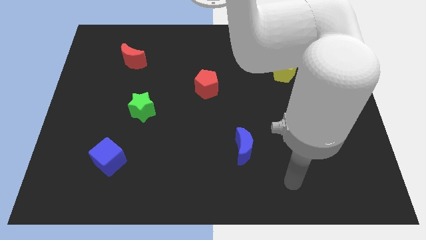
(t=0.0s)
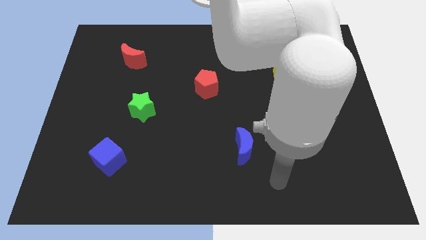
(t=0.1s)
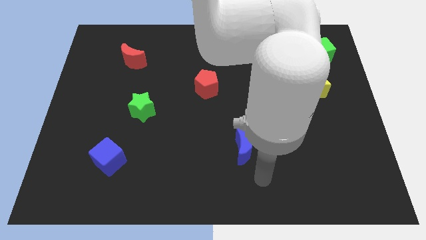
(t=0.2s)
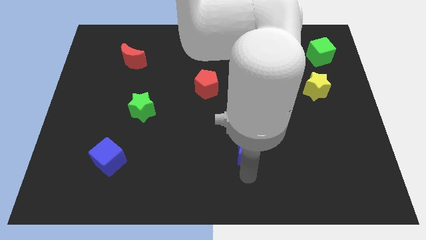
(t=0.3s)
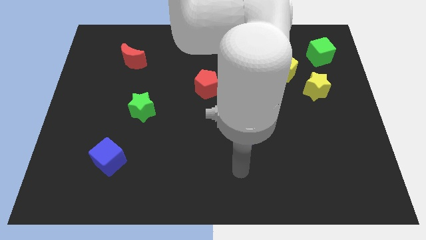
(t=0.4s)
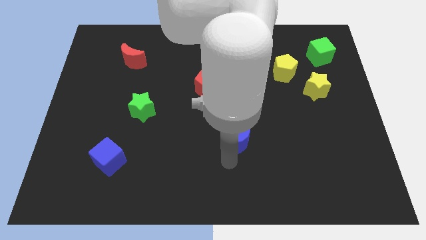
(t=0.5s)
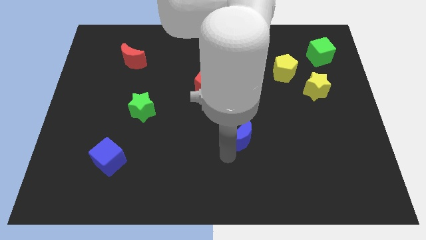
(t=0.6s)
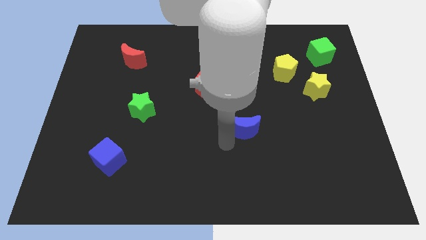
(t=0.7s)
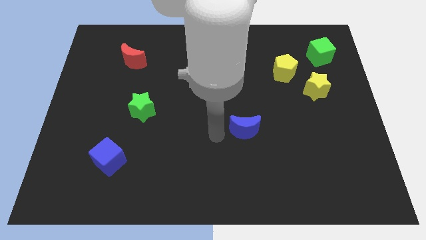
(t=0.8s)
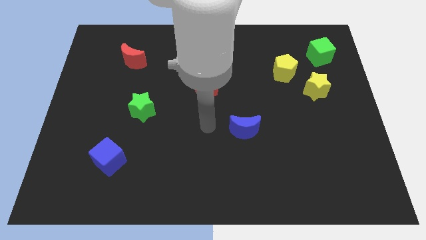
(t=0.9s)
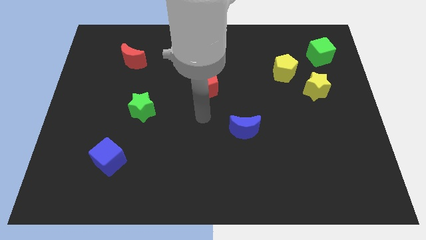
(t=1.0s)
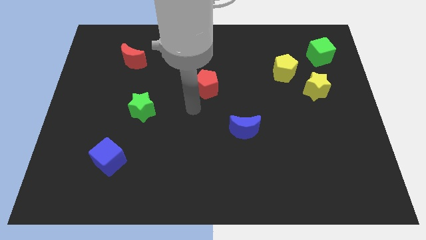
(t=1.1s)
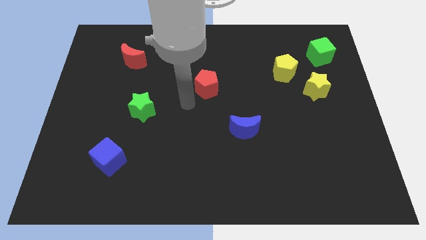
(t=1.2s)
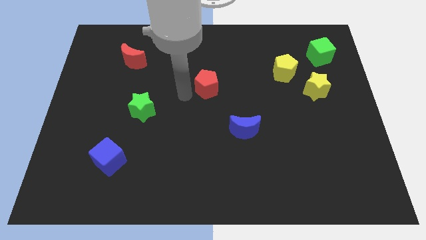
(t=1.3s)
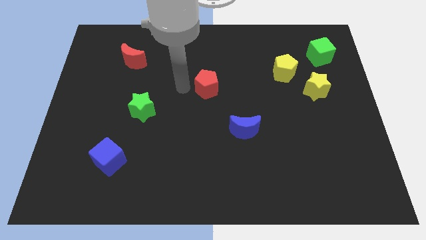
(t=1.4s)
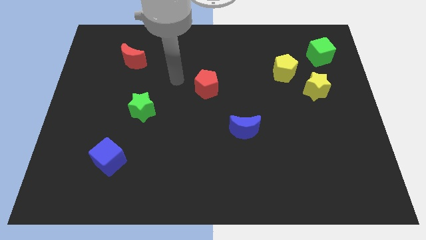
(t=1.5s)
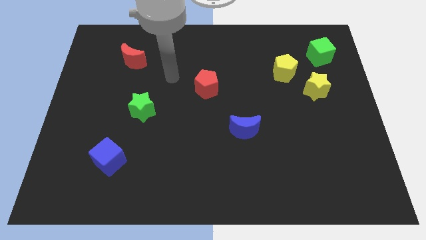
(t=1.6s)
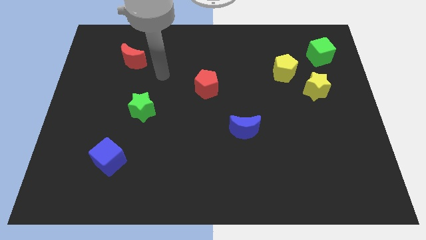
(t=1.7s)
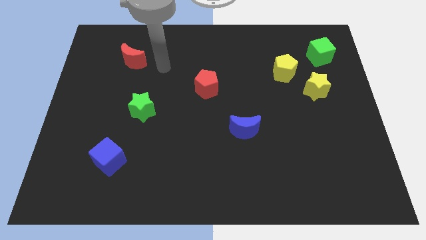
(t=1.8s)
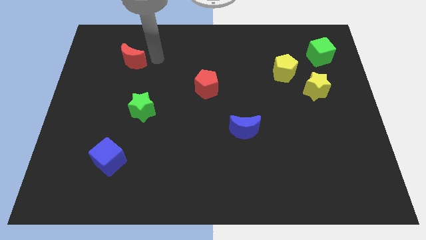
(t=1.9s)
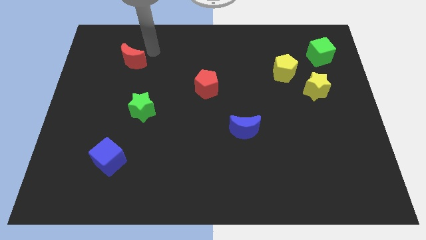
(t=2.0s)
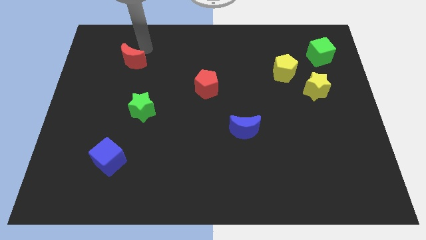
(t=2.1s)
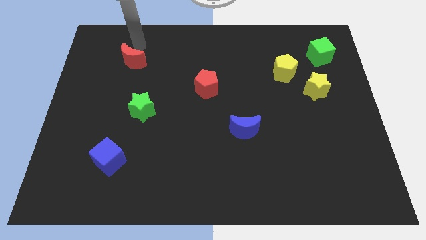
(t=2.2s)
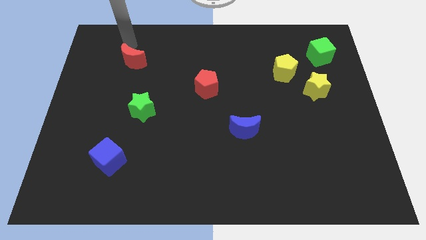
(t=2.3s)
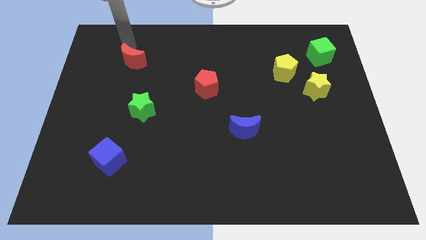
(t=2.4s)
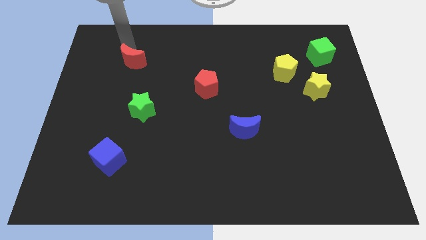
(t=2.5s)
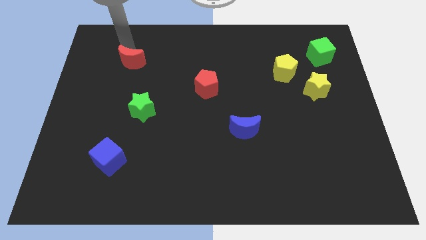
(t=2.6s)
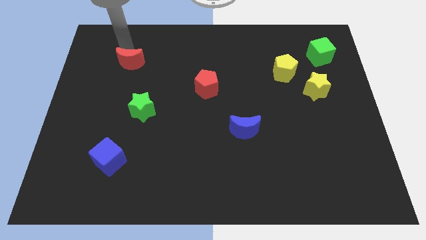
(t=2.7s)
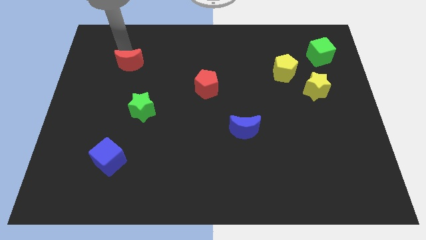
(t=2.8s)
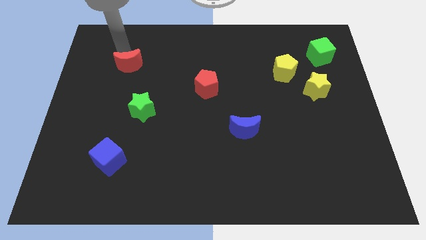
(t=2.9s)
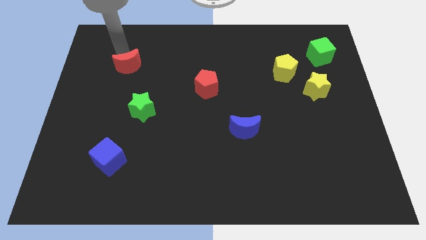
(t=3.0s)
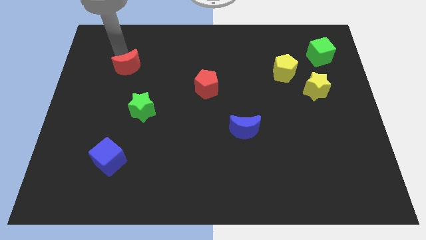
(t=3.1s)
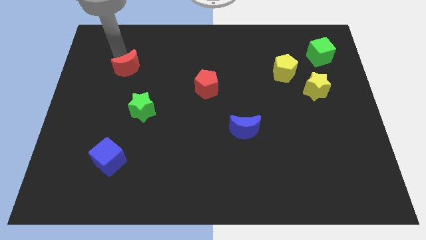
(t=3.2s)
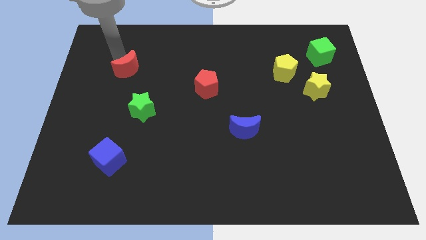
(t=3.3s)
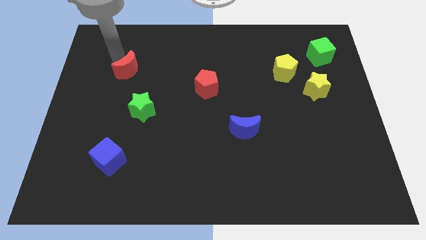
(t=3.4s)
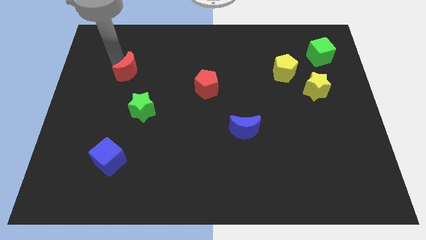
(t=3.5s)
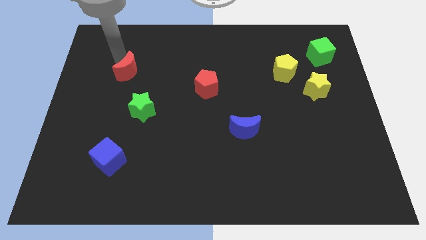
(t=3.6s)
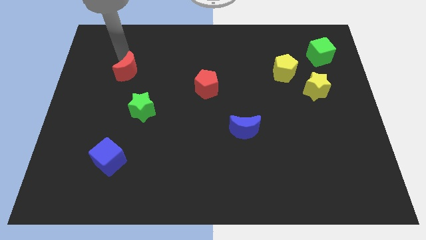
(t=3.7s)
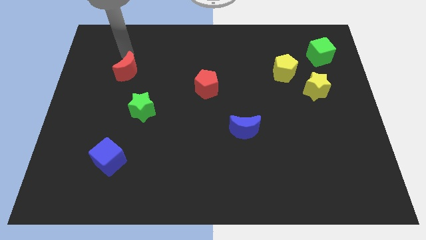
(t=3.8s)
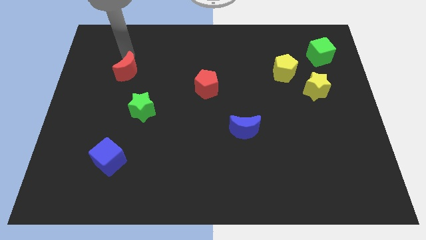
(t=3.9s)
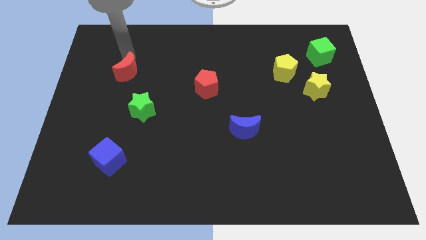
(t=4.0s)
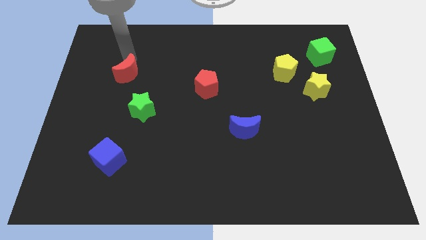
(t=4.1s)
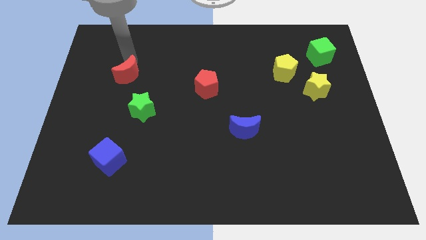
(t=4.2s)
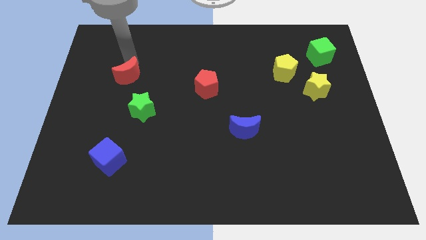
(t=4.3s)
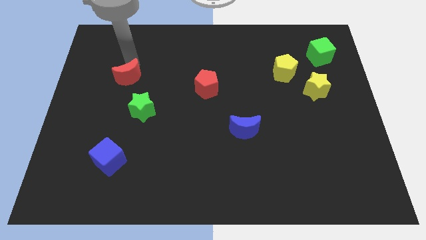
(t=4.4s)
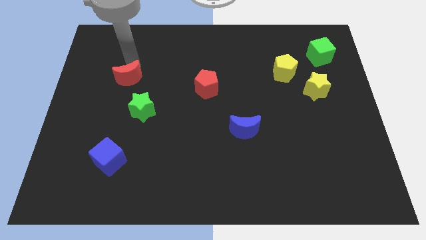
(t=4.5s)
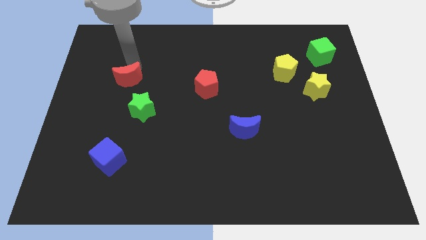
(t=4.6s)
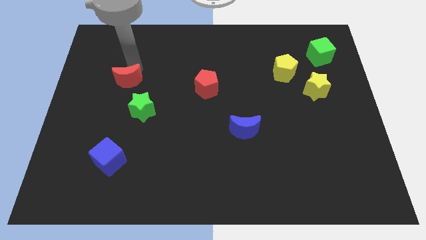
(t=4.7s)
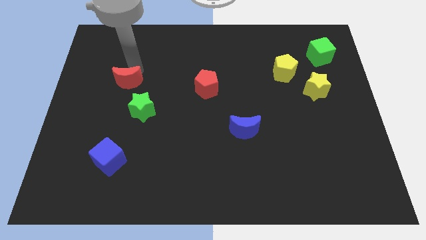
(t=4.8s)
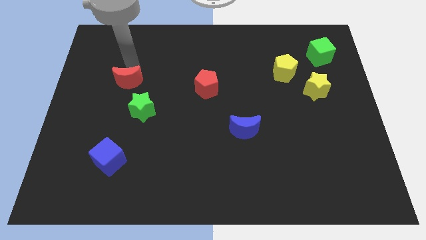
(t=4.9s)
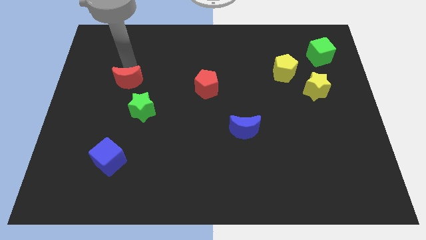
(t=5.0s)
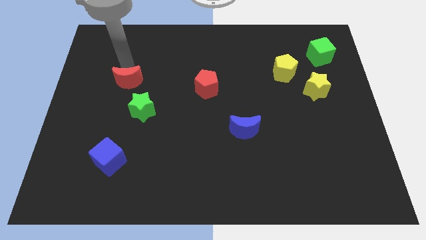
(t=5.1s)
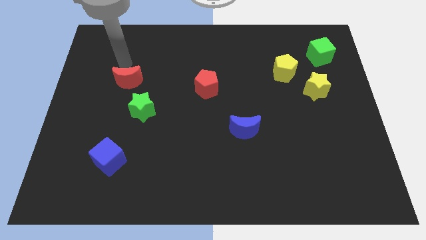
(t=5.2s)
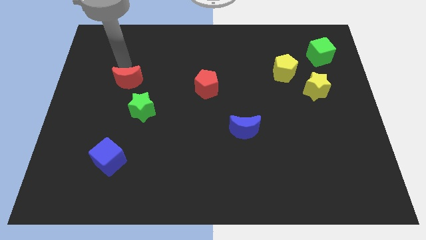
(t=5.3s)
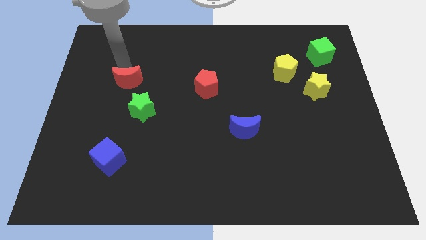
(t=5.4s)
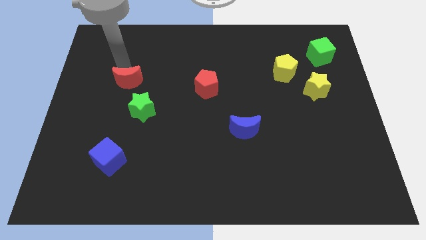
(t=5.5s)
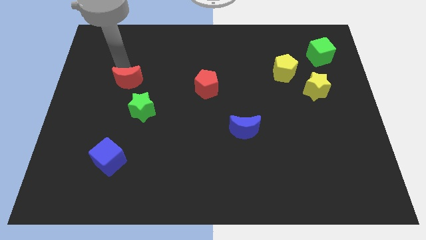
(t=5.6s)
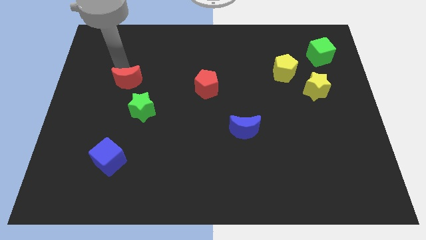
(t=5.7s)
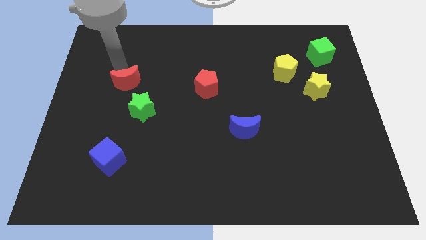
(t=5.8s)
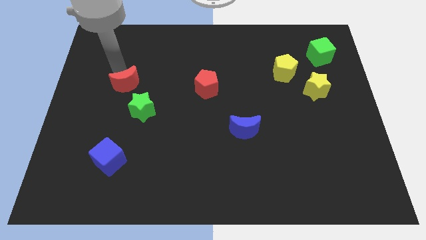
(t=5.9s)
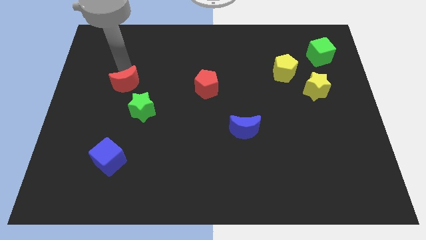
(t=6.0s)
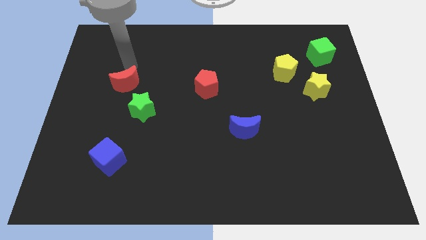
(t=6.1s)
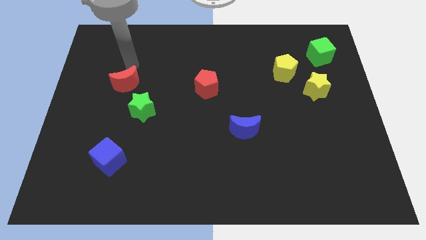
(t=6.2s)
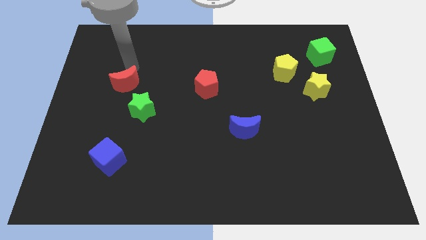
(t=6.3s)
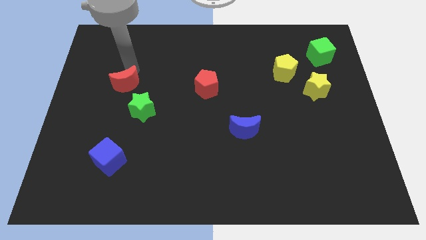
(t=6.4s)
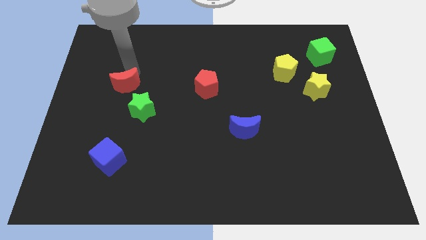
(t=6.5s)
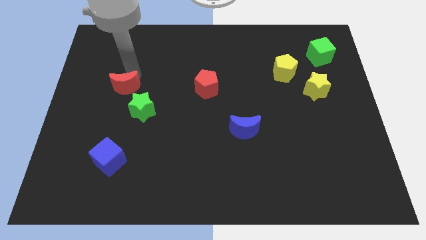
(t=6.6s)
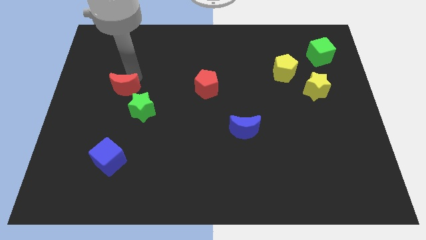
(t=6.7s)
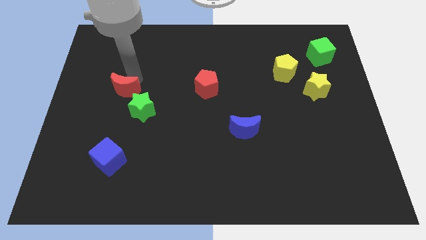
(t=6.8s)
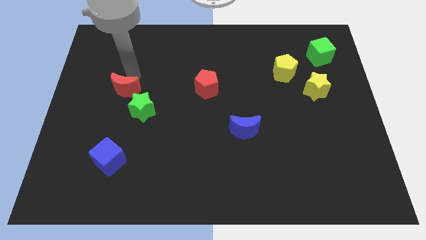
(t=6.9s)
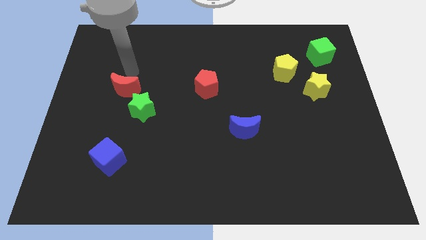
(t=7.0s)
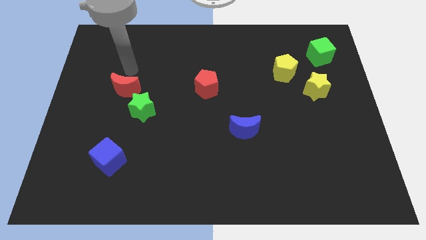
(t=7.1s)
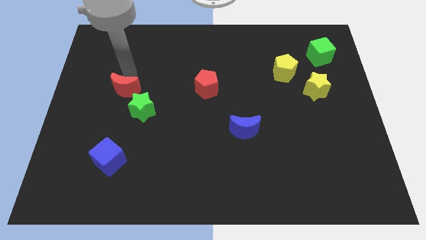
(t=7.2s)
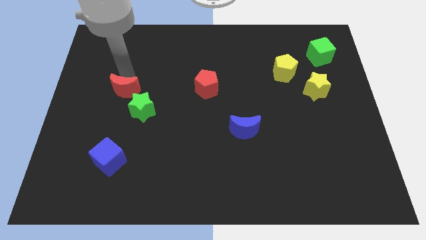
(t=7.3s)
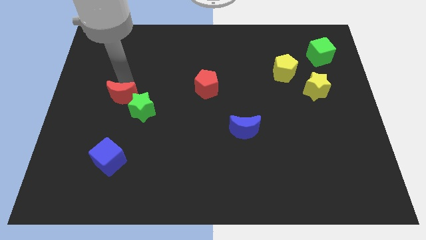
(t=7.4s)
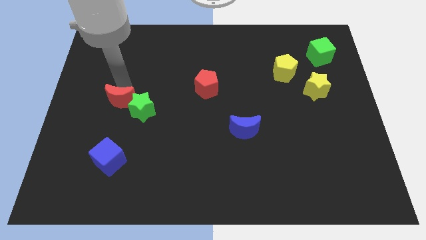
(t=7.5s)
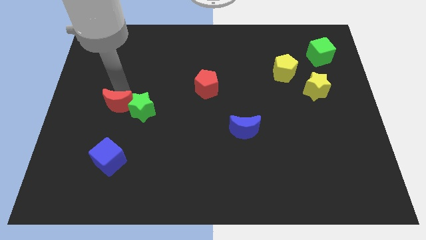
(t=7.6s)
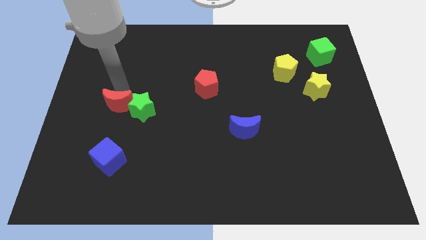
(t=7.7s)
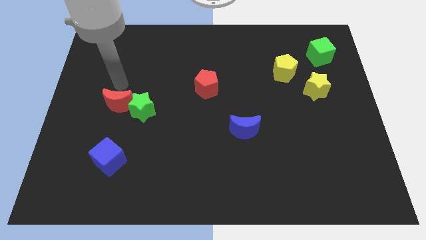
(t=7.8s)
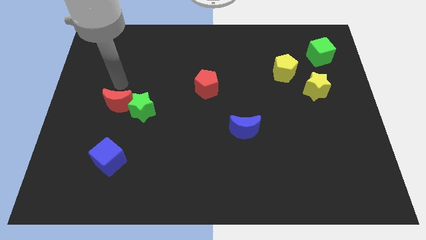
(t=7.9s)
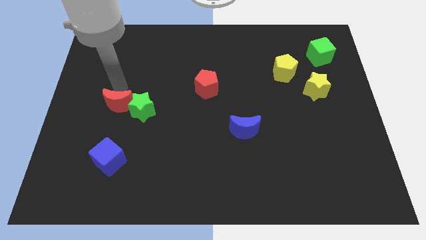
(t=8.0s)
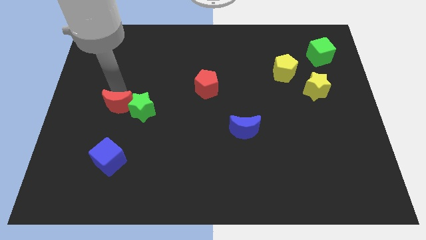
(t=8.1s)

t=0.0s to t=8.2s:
slide the red moon to the bottom left side of the green star
